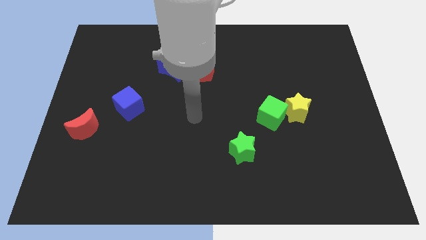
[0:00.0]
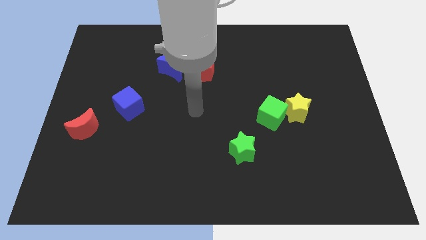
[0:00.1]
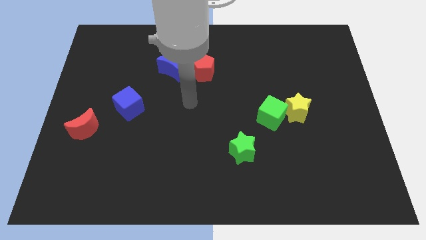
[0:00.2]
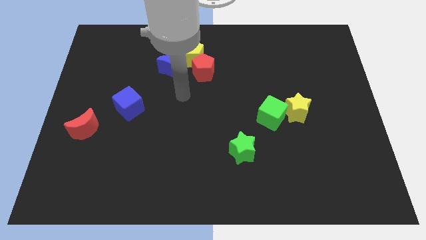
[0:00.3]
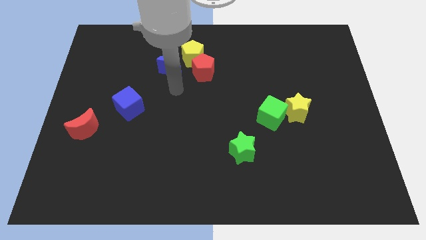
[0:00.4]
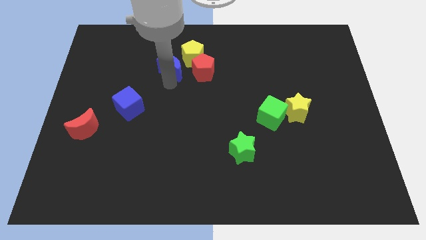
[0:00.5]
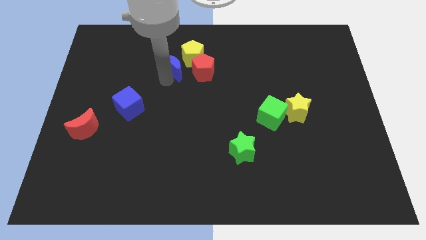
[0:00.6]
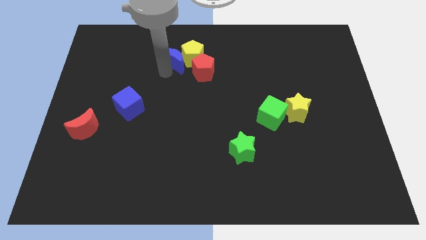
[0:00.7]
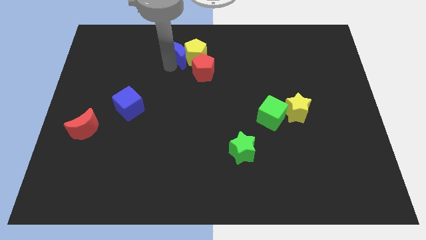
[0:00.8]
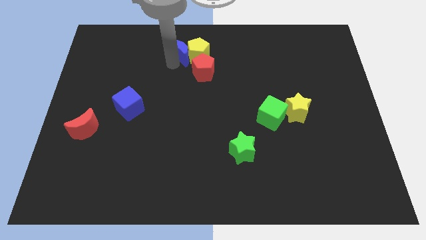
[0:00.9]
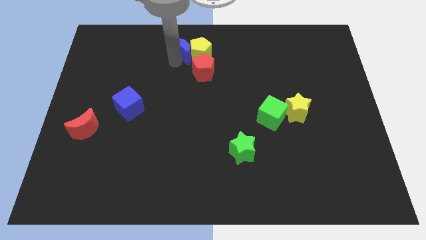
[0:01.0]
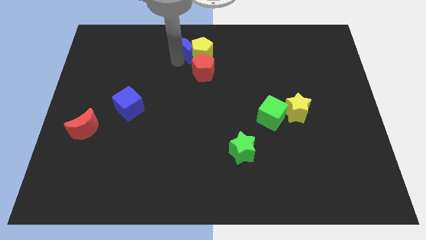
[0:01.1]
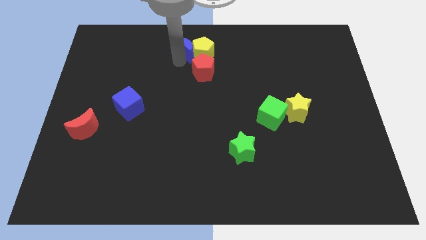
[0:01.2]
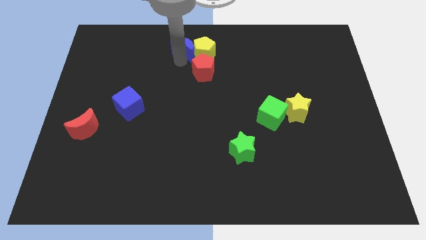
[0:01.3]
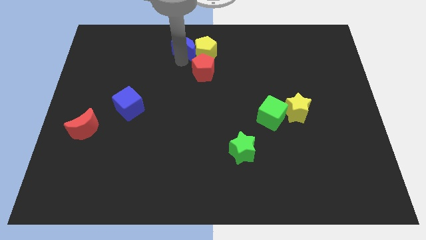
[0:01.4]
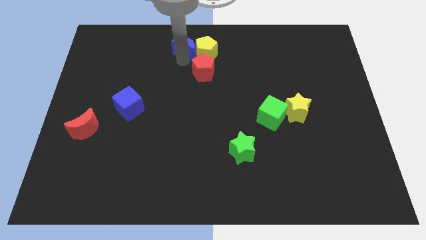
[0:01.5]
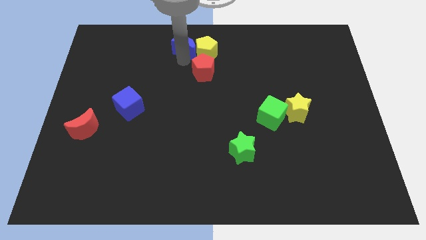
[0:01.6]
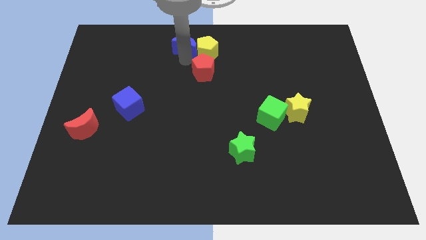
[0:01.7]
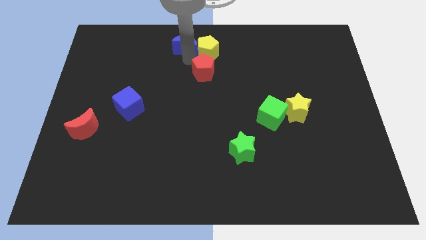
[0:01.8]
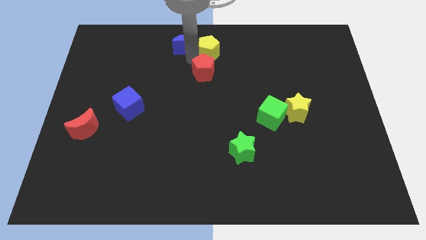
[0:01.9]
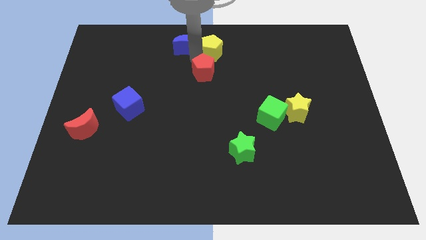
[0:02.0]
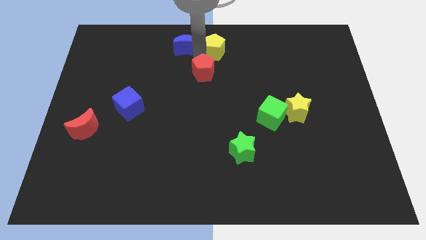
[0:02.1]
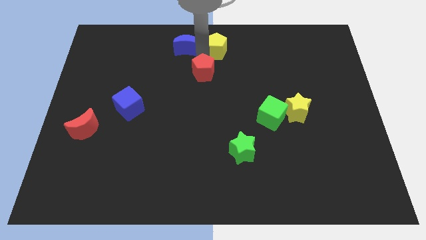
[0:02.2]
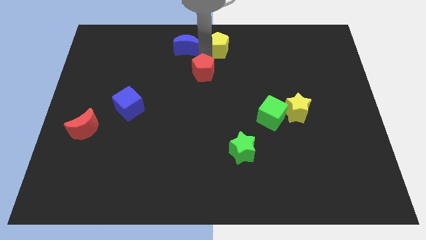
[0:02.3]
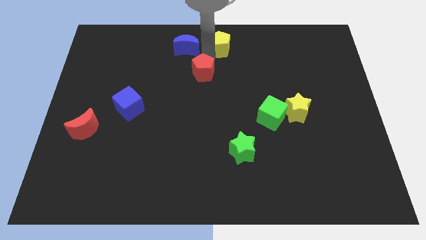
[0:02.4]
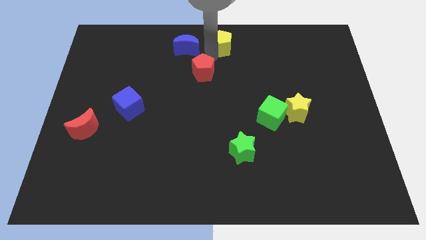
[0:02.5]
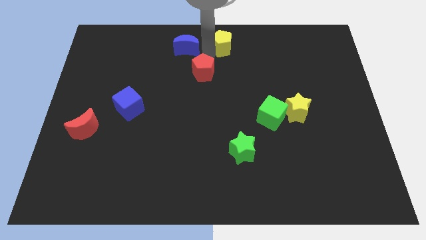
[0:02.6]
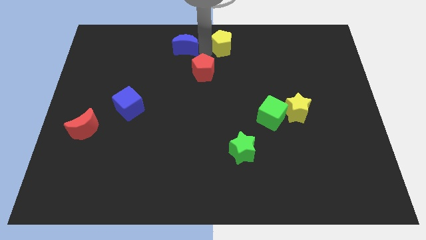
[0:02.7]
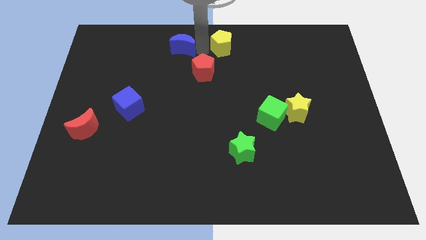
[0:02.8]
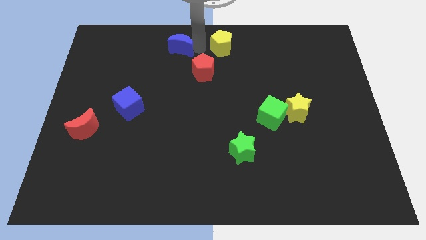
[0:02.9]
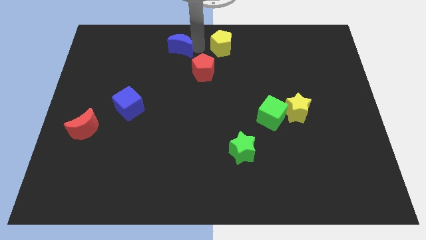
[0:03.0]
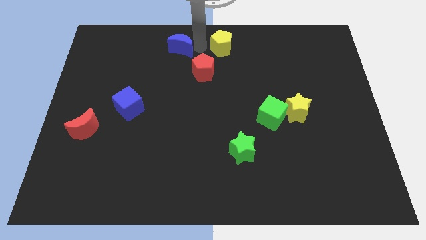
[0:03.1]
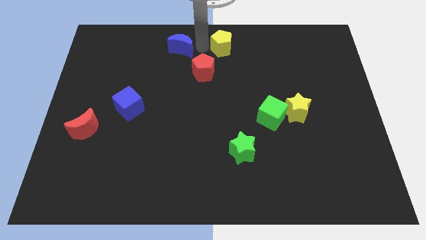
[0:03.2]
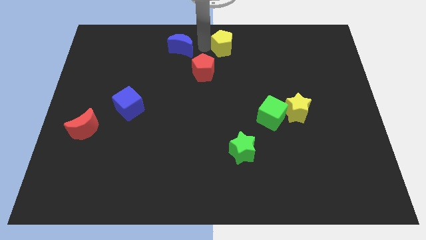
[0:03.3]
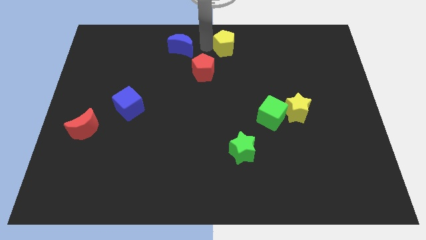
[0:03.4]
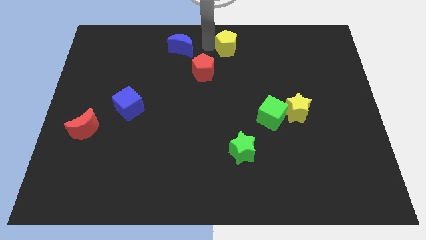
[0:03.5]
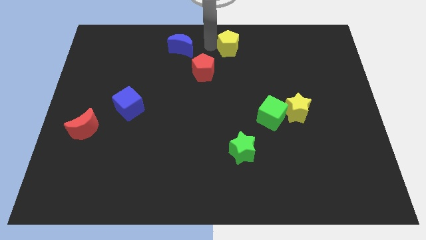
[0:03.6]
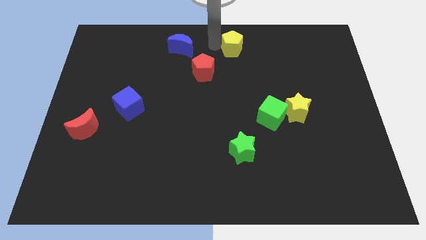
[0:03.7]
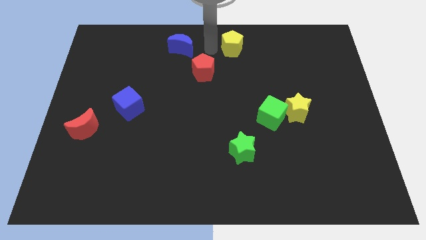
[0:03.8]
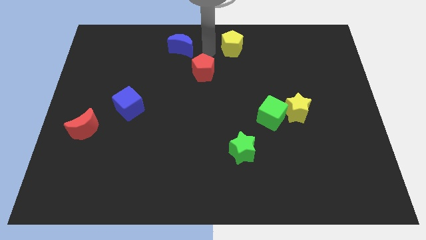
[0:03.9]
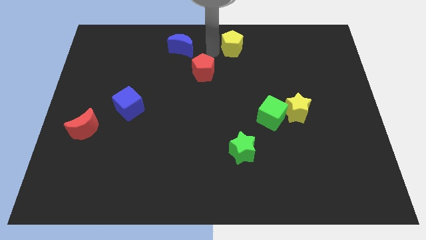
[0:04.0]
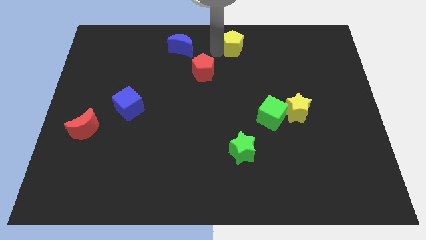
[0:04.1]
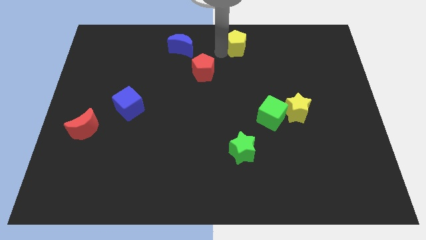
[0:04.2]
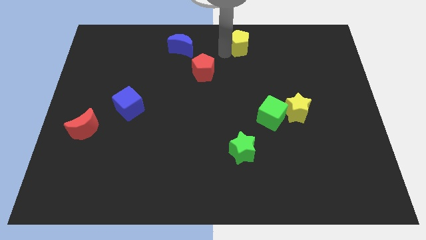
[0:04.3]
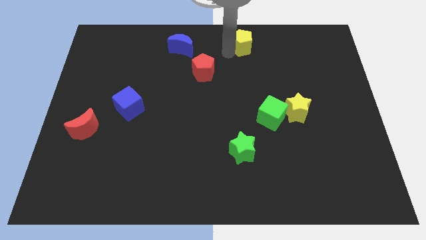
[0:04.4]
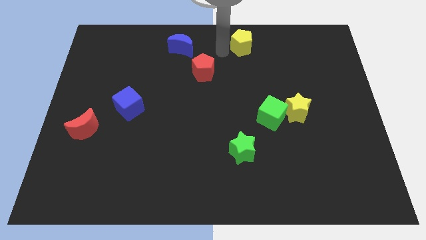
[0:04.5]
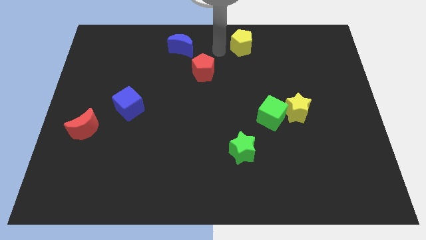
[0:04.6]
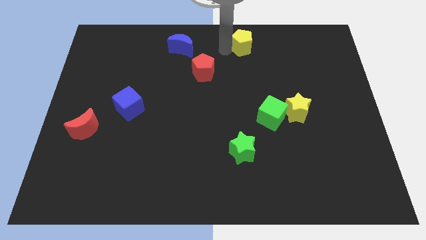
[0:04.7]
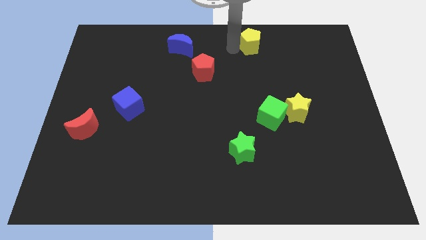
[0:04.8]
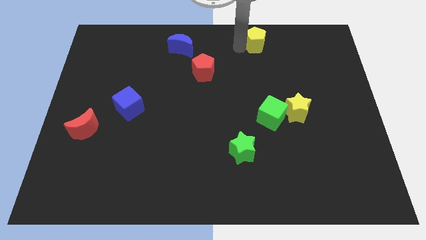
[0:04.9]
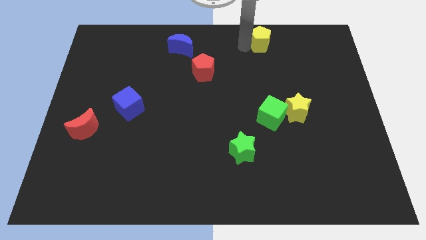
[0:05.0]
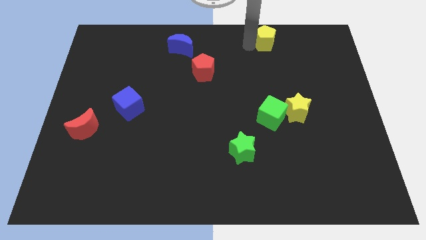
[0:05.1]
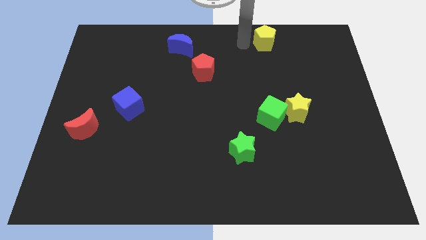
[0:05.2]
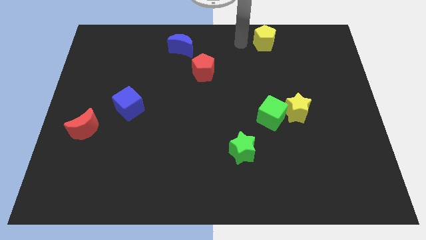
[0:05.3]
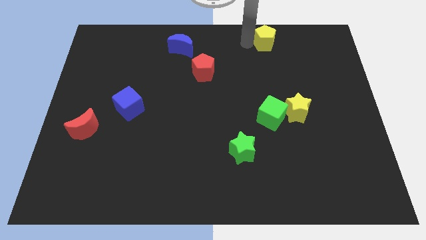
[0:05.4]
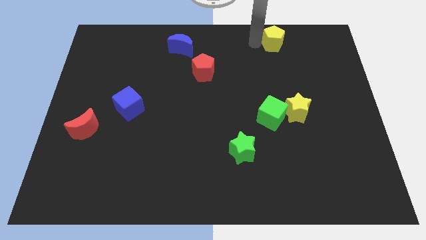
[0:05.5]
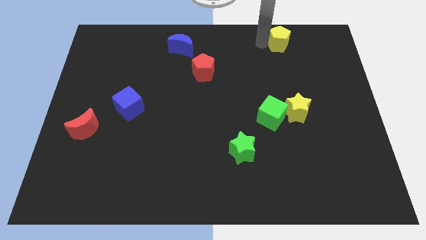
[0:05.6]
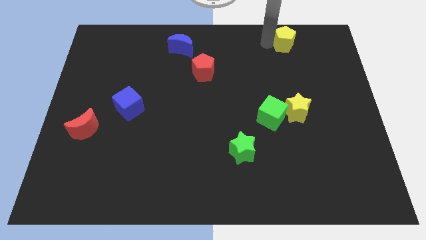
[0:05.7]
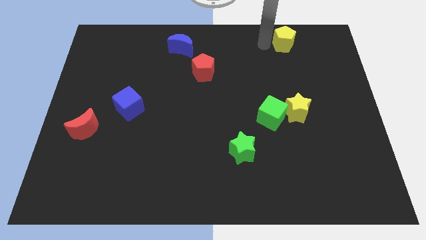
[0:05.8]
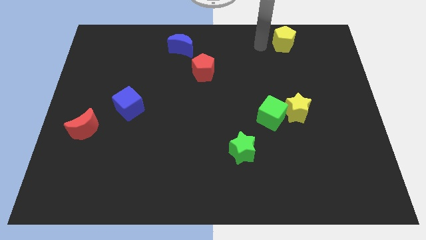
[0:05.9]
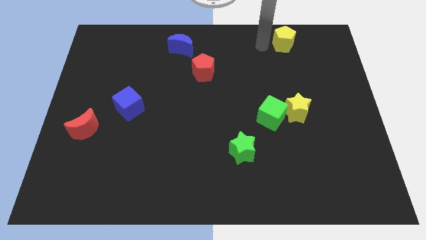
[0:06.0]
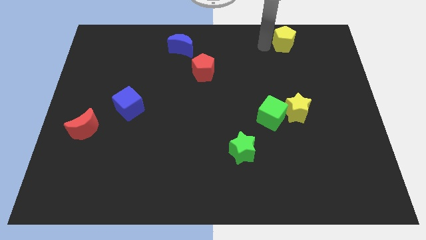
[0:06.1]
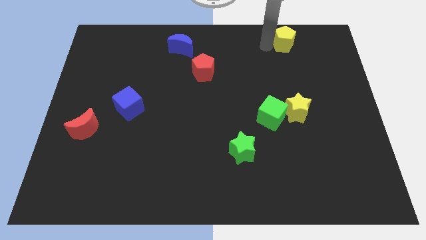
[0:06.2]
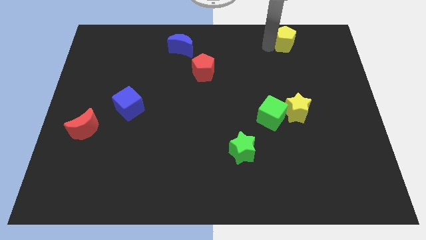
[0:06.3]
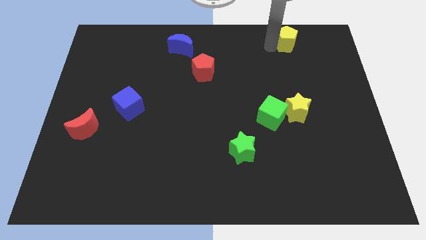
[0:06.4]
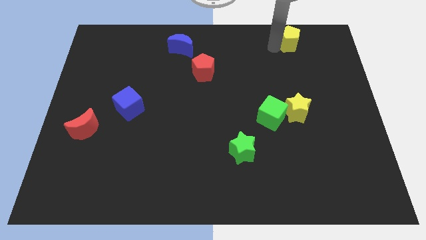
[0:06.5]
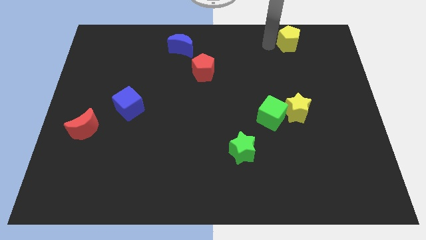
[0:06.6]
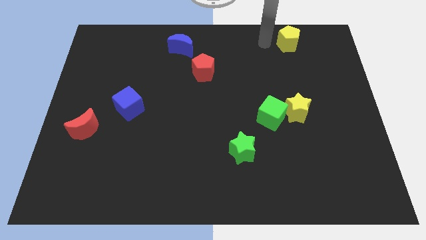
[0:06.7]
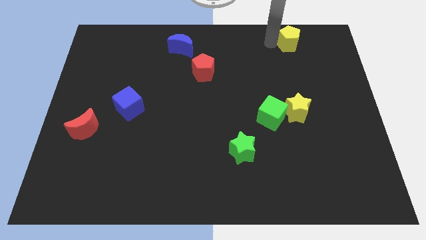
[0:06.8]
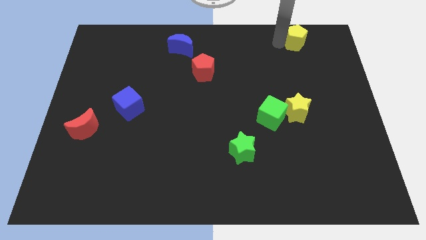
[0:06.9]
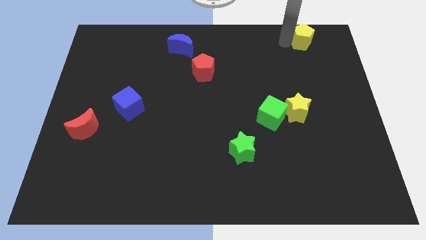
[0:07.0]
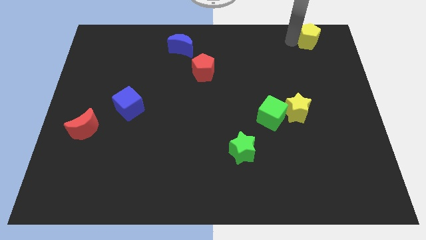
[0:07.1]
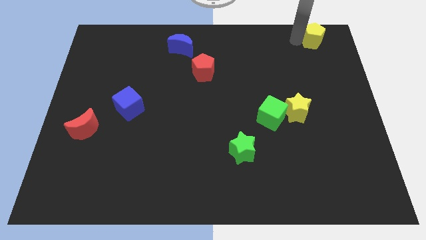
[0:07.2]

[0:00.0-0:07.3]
push the yellow pentagon to the top right corner
